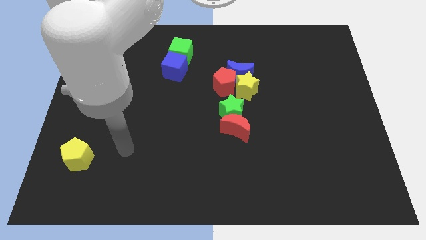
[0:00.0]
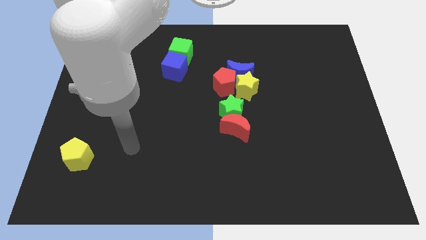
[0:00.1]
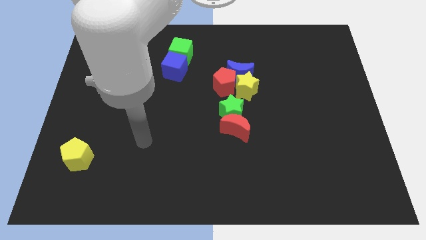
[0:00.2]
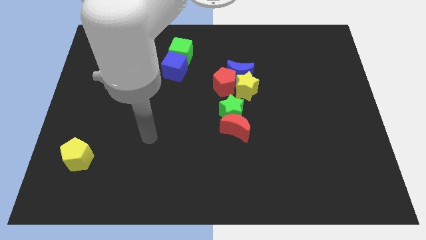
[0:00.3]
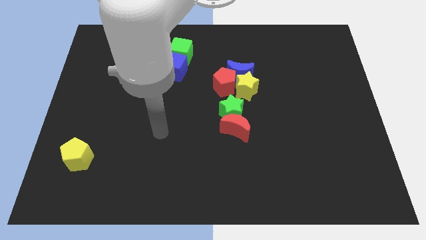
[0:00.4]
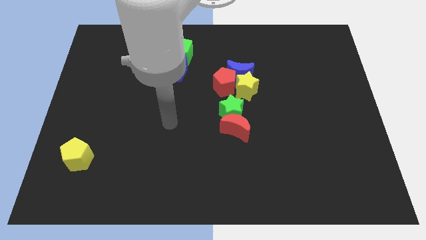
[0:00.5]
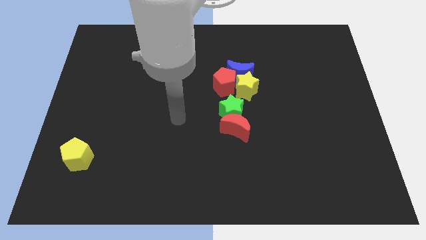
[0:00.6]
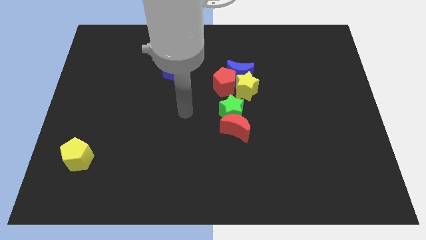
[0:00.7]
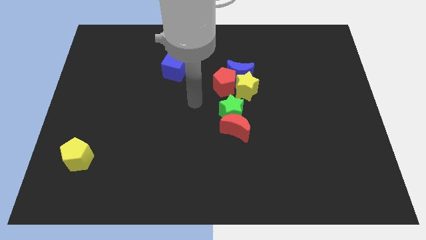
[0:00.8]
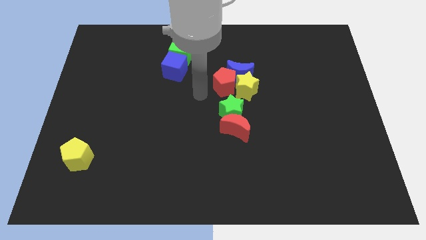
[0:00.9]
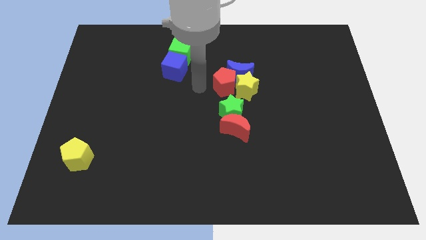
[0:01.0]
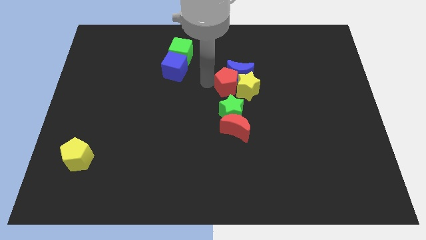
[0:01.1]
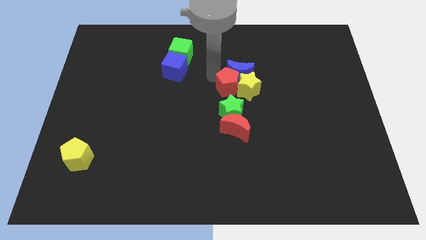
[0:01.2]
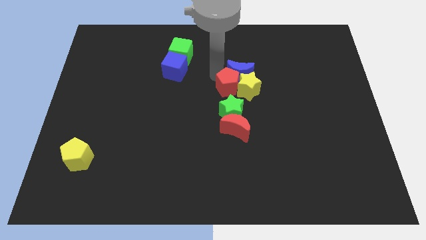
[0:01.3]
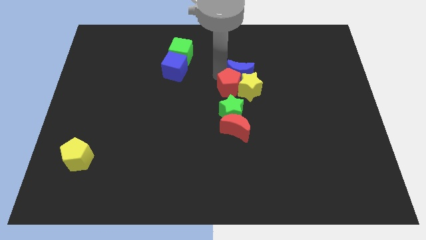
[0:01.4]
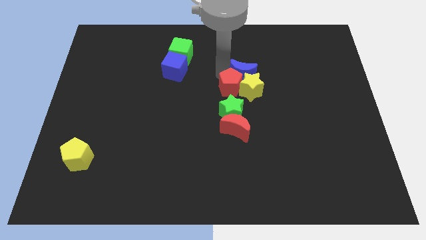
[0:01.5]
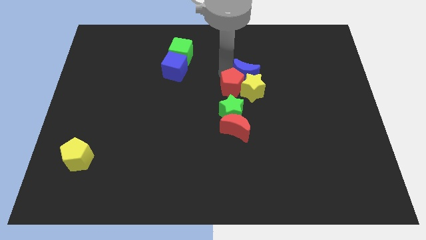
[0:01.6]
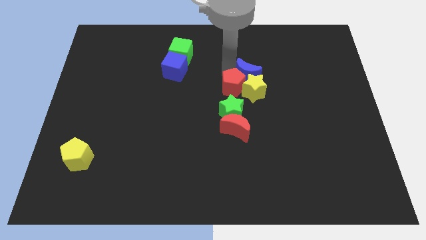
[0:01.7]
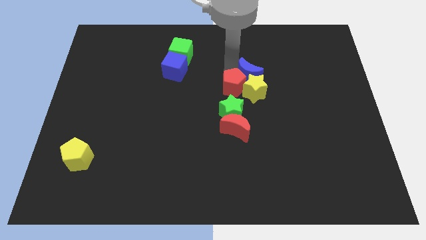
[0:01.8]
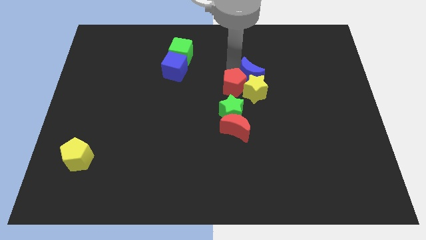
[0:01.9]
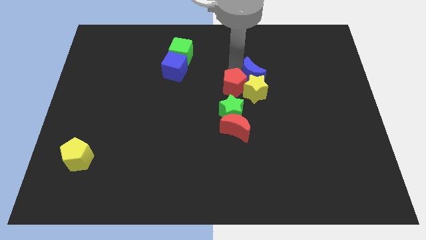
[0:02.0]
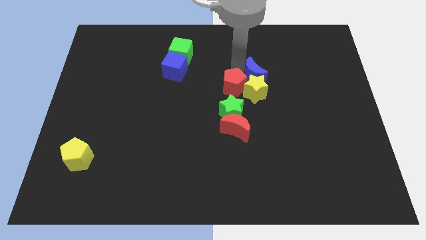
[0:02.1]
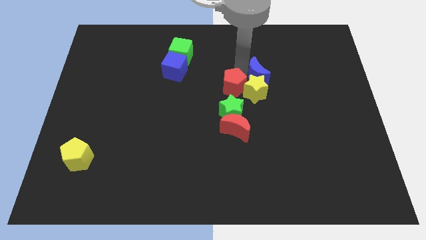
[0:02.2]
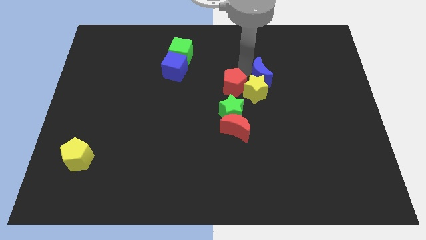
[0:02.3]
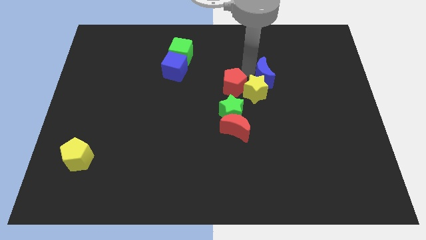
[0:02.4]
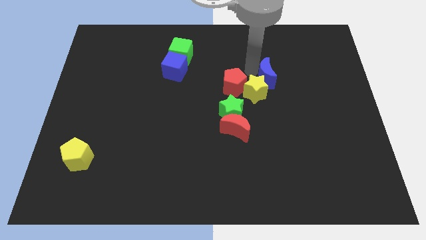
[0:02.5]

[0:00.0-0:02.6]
slightly move the blue moon to the right

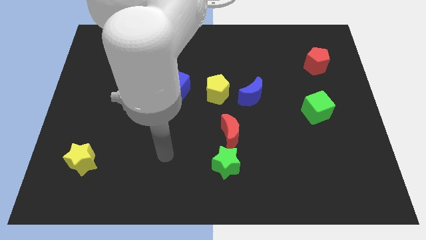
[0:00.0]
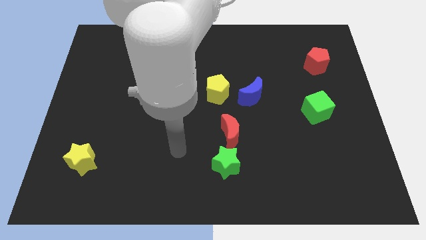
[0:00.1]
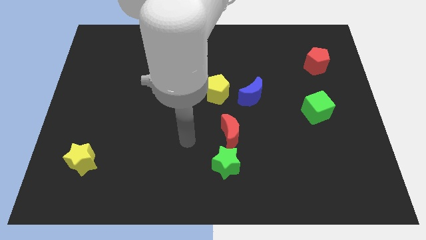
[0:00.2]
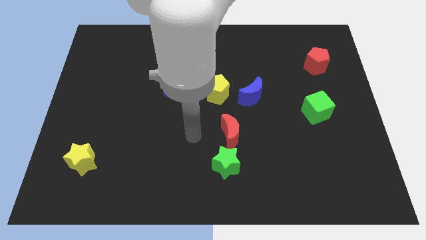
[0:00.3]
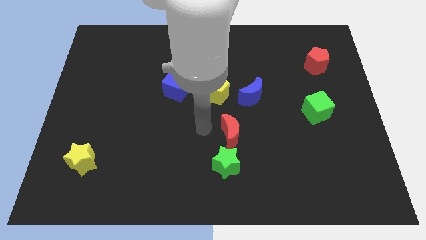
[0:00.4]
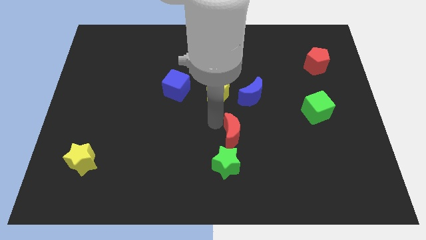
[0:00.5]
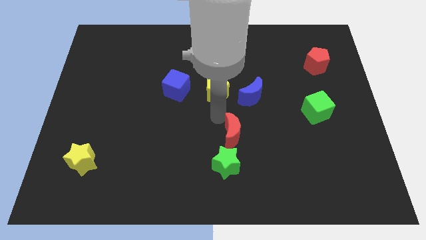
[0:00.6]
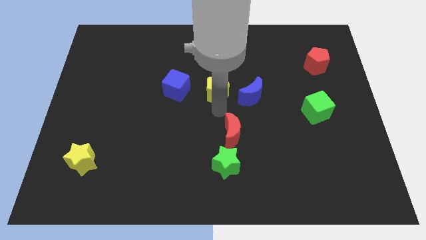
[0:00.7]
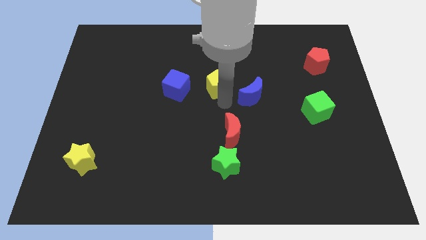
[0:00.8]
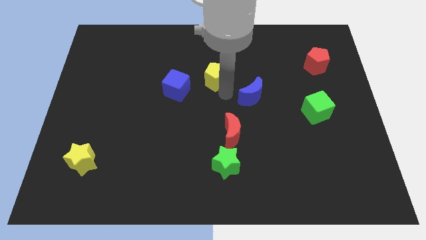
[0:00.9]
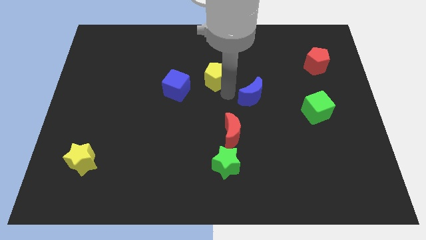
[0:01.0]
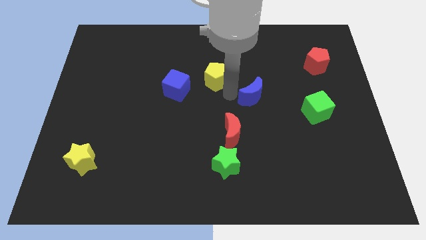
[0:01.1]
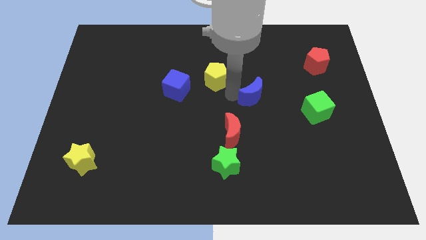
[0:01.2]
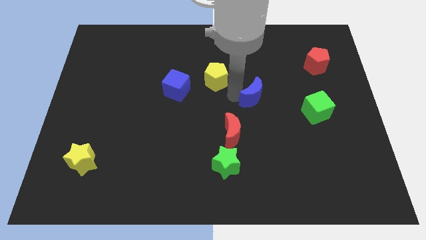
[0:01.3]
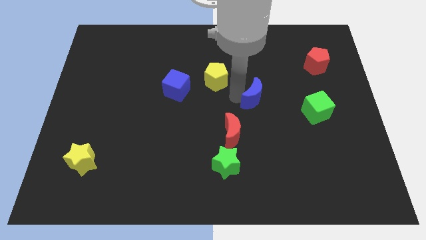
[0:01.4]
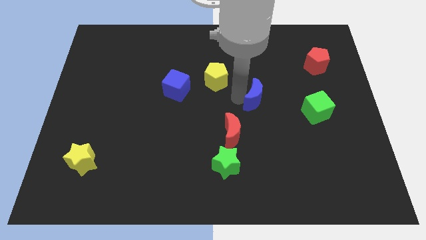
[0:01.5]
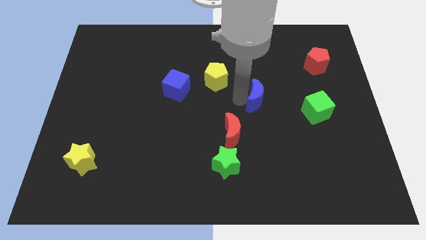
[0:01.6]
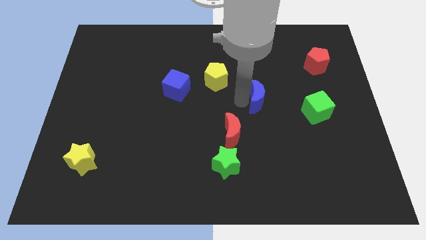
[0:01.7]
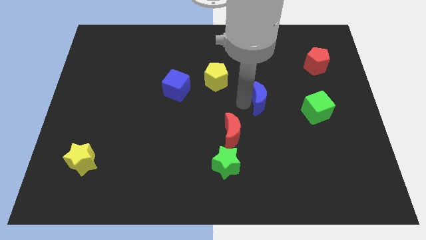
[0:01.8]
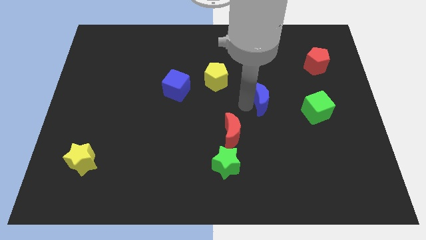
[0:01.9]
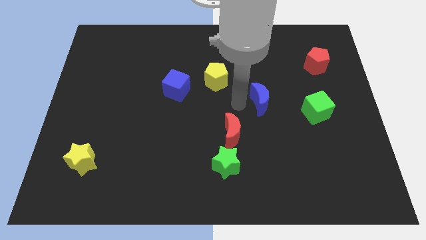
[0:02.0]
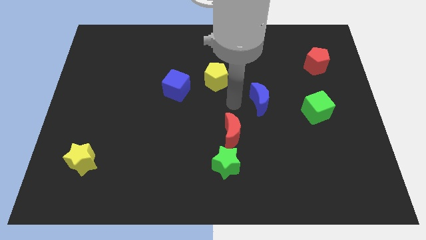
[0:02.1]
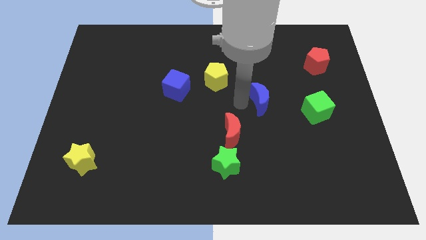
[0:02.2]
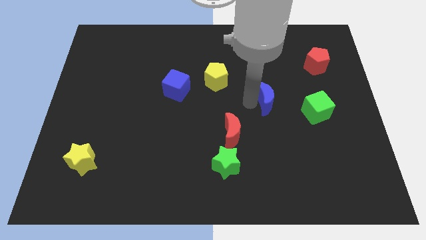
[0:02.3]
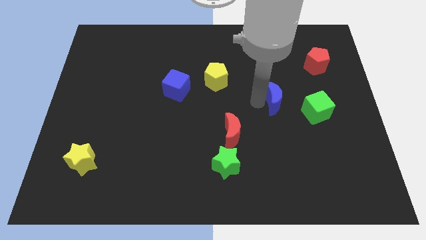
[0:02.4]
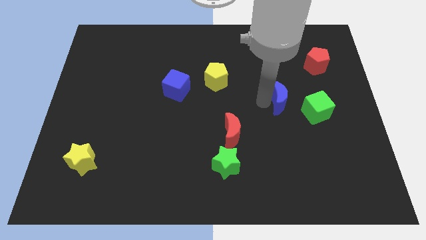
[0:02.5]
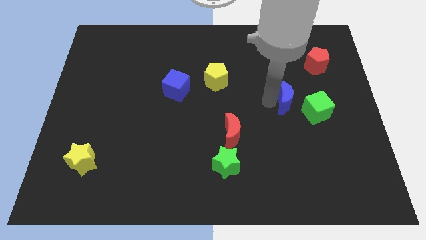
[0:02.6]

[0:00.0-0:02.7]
push the blue moon to the right a little

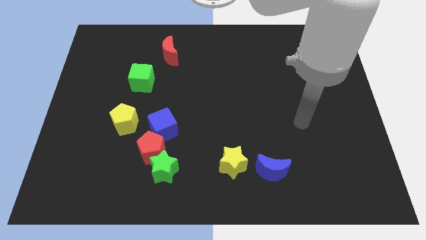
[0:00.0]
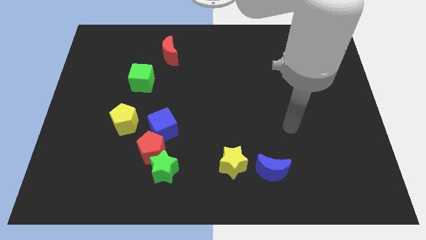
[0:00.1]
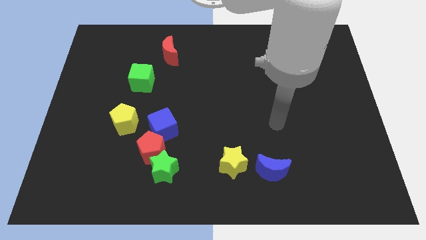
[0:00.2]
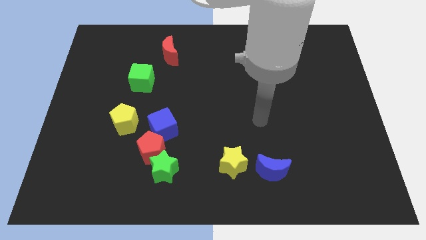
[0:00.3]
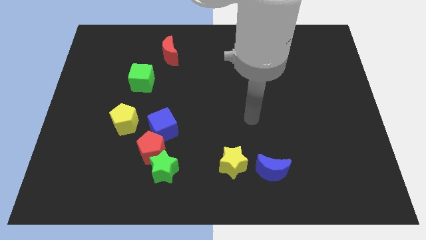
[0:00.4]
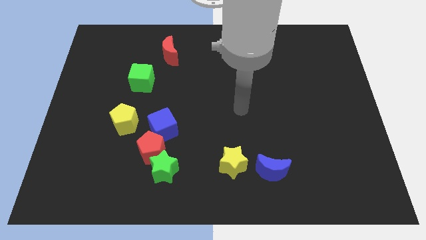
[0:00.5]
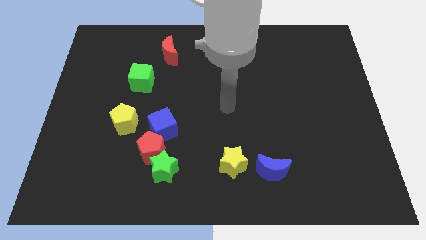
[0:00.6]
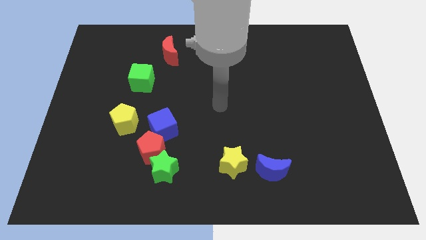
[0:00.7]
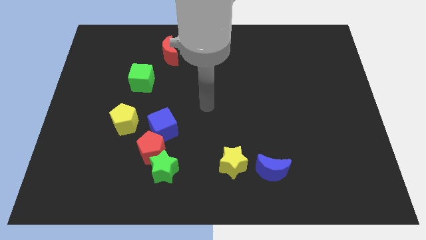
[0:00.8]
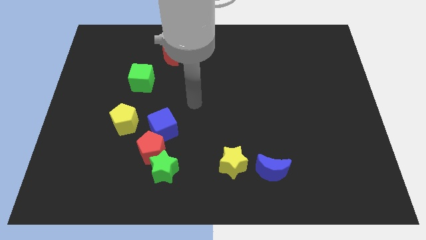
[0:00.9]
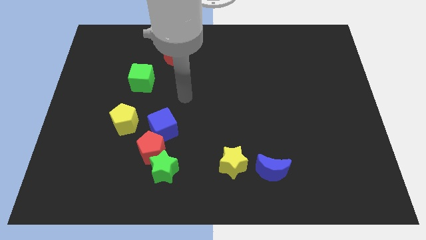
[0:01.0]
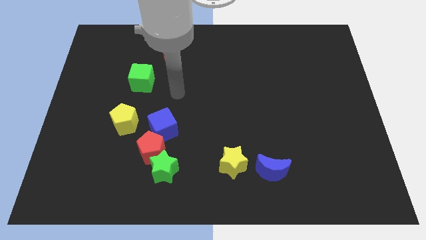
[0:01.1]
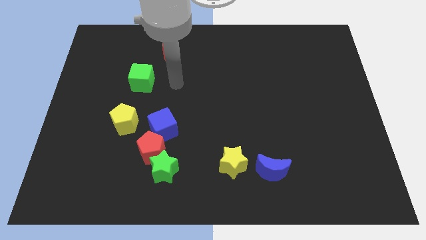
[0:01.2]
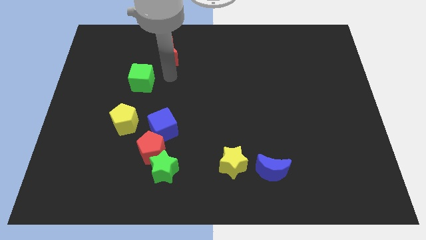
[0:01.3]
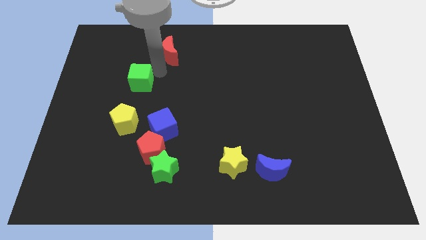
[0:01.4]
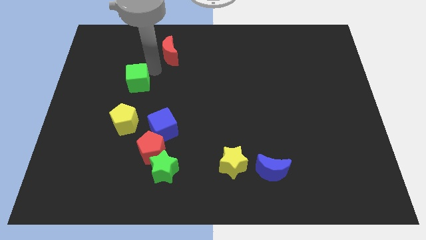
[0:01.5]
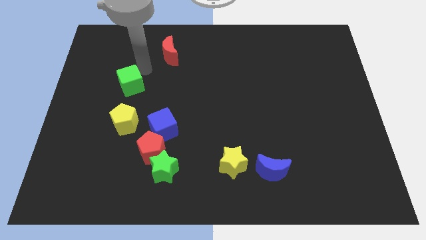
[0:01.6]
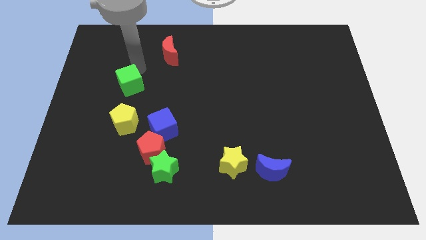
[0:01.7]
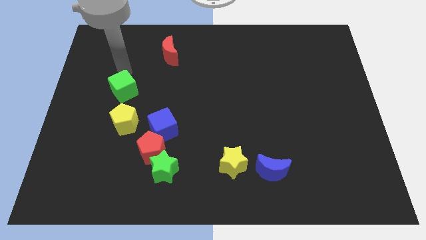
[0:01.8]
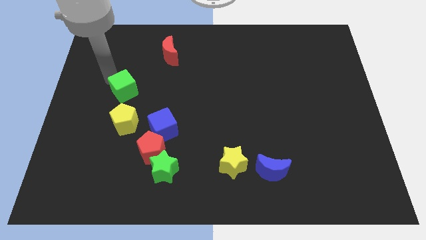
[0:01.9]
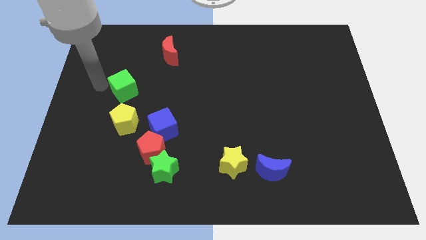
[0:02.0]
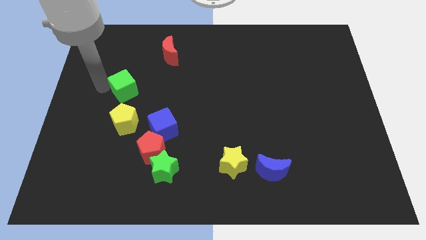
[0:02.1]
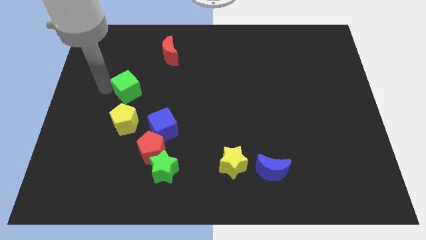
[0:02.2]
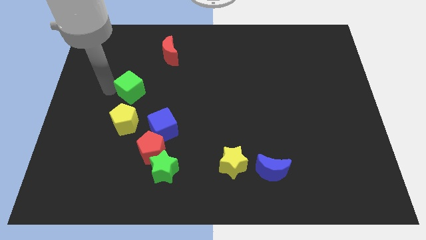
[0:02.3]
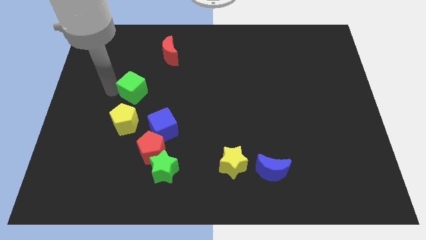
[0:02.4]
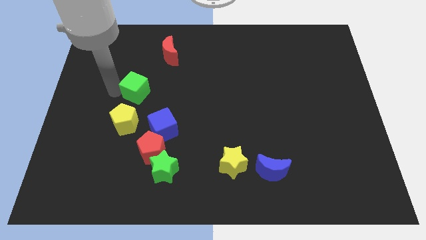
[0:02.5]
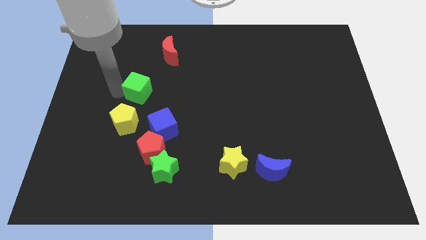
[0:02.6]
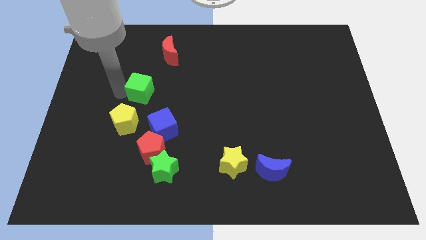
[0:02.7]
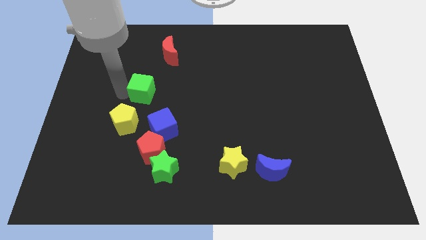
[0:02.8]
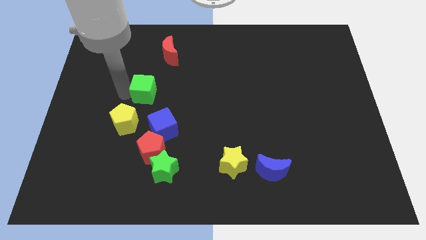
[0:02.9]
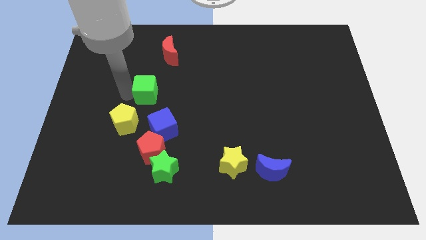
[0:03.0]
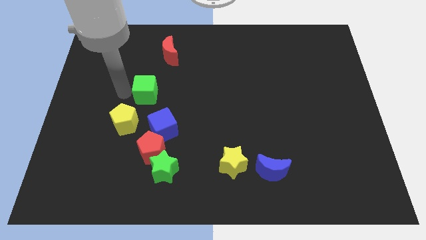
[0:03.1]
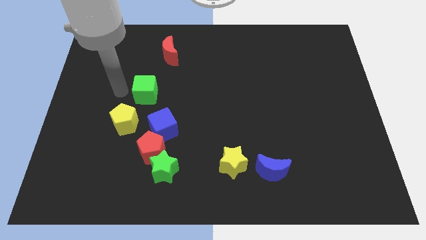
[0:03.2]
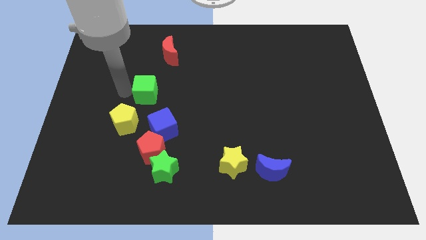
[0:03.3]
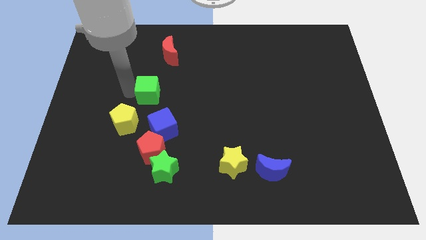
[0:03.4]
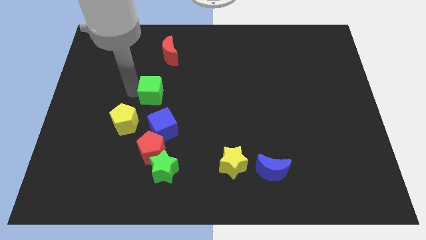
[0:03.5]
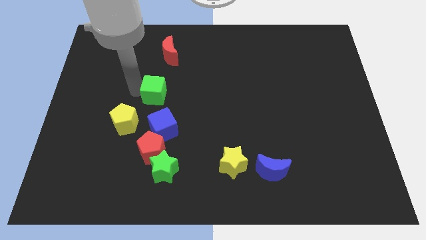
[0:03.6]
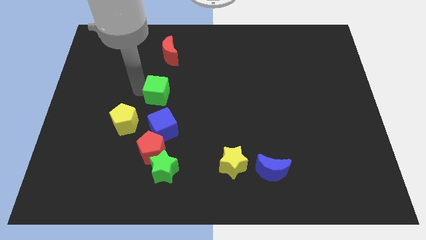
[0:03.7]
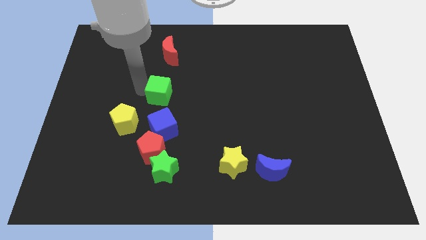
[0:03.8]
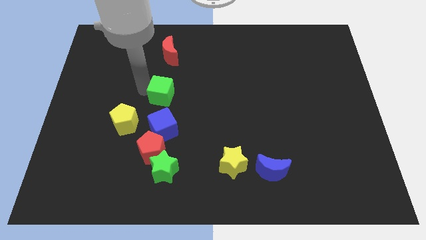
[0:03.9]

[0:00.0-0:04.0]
slide the green cube somewhat diagonally down and to the right
